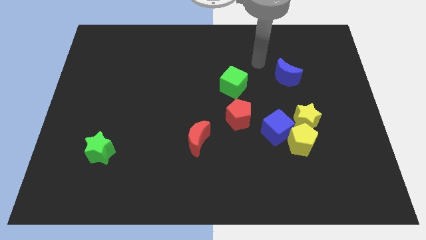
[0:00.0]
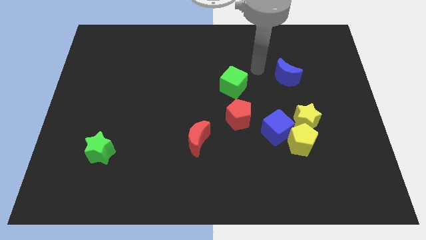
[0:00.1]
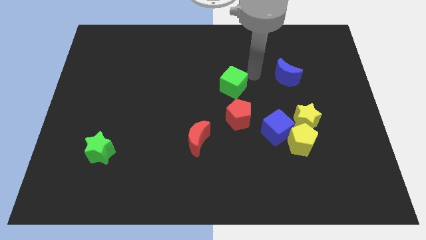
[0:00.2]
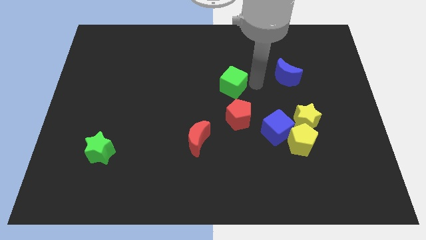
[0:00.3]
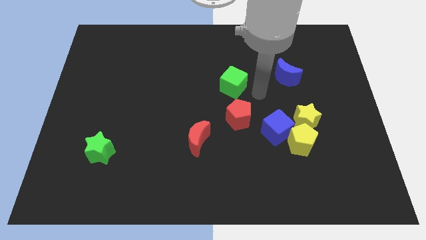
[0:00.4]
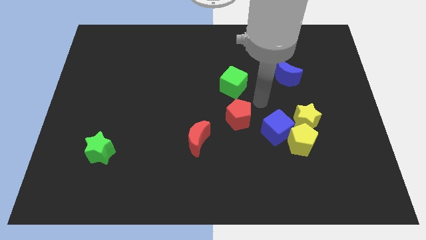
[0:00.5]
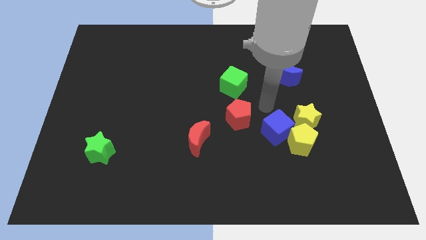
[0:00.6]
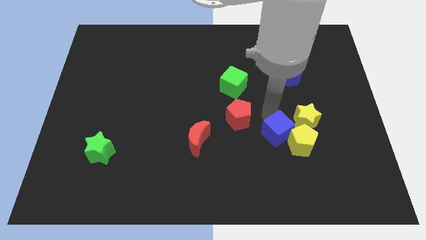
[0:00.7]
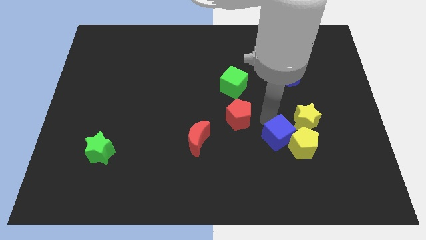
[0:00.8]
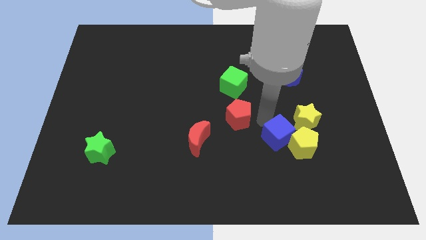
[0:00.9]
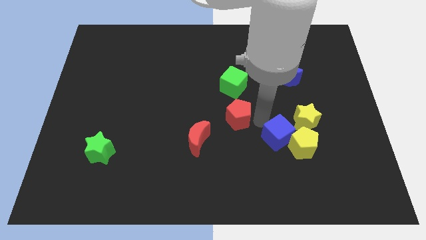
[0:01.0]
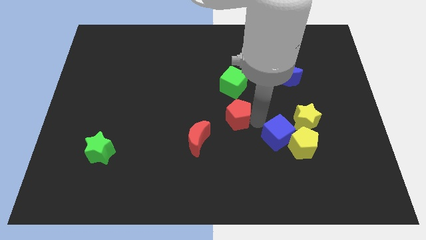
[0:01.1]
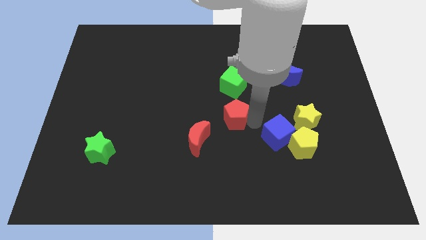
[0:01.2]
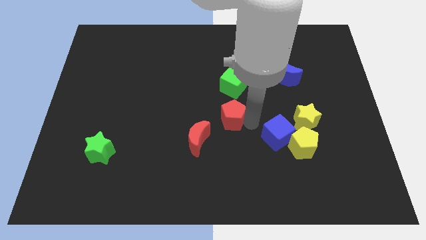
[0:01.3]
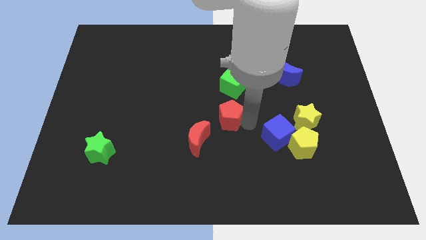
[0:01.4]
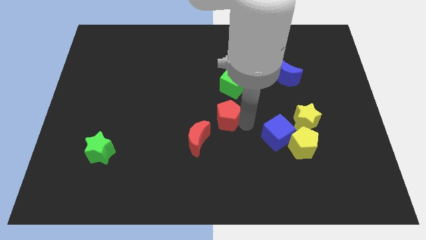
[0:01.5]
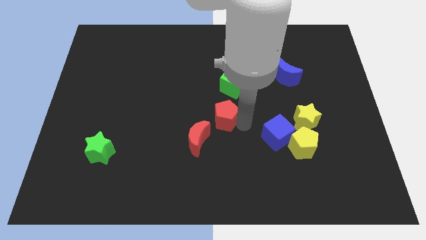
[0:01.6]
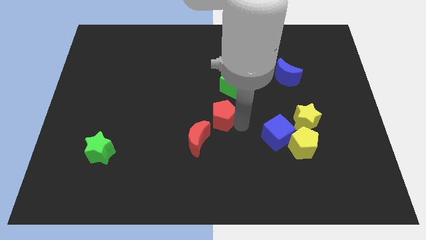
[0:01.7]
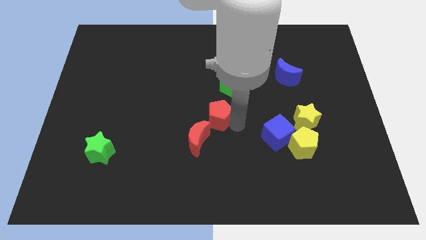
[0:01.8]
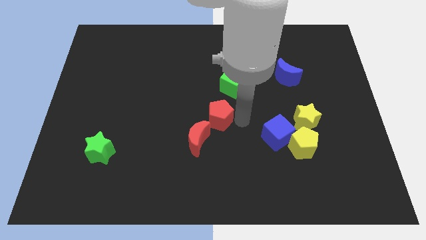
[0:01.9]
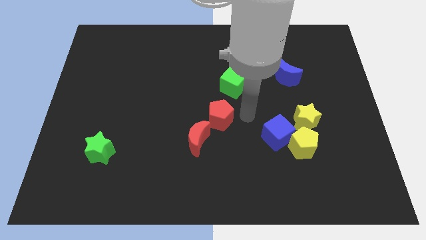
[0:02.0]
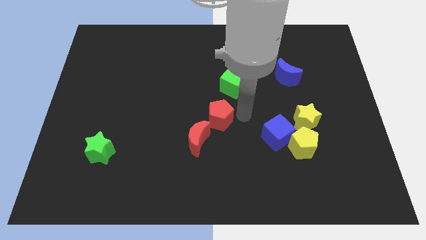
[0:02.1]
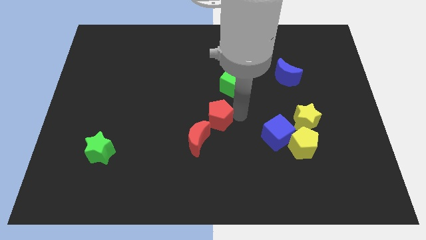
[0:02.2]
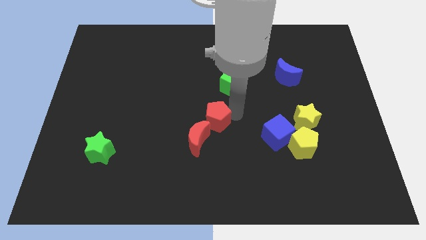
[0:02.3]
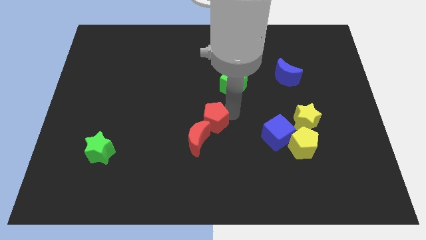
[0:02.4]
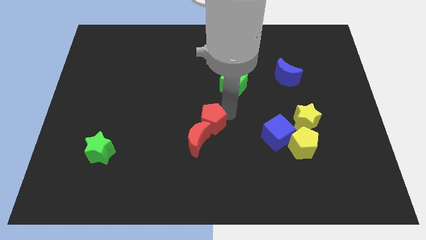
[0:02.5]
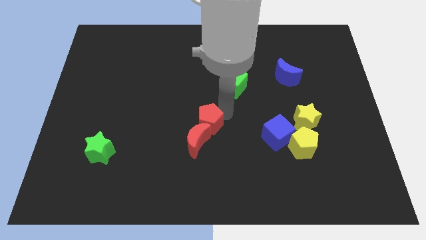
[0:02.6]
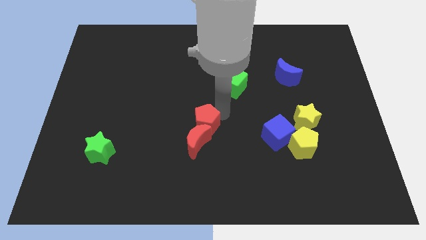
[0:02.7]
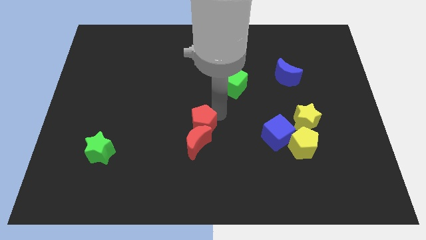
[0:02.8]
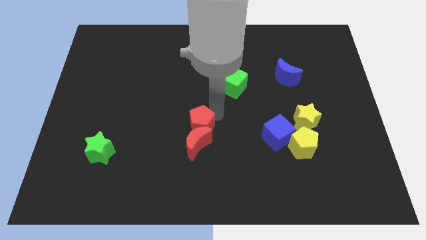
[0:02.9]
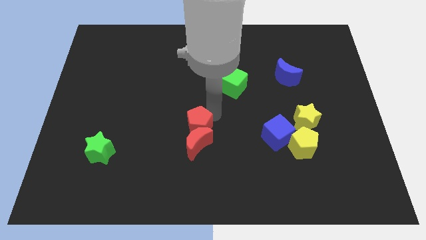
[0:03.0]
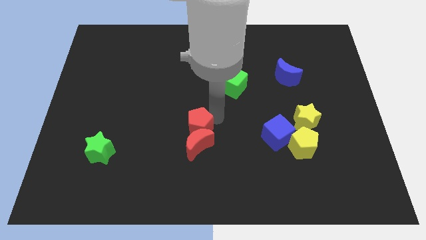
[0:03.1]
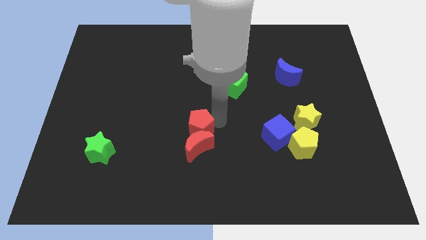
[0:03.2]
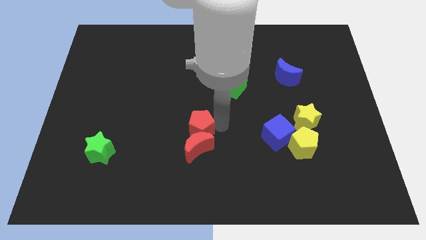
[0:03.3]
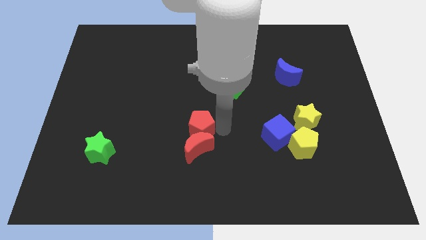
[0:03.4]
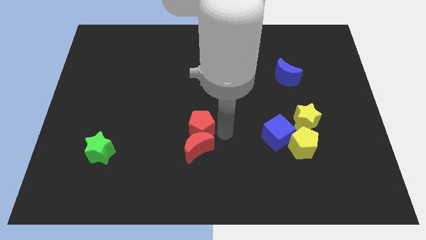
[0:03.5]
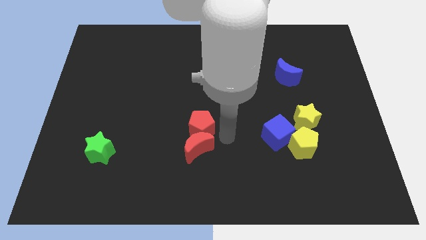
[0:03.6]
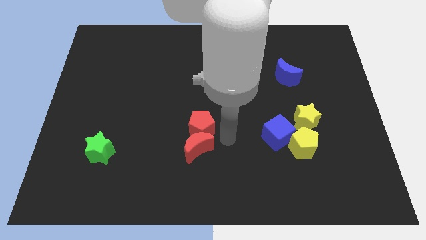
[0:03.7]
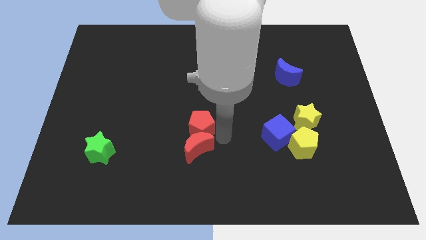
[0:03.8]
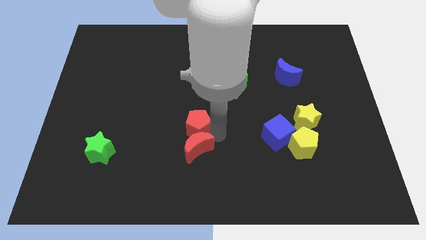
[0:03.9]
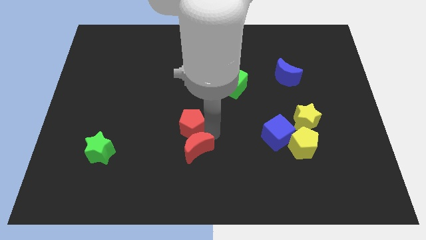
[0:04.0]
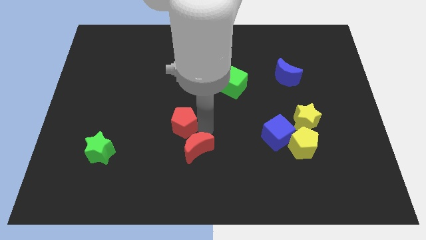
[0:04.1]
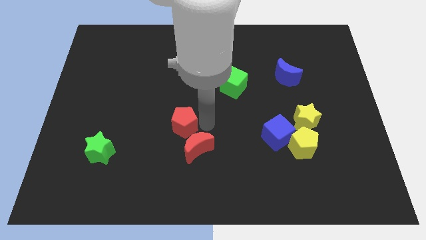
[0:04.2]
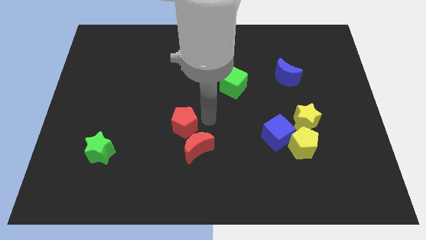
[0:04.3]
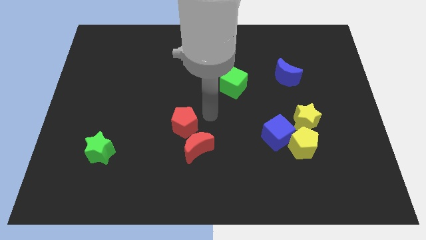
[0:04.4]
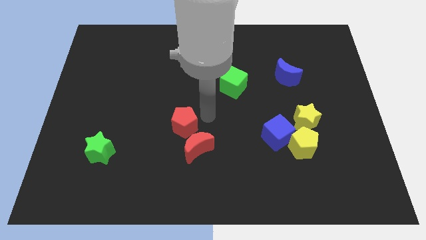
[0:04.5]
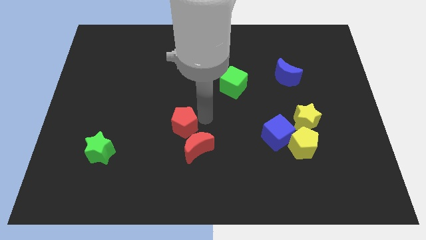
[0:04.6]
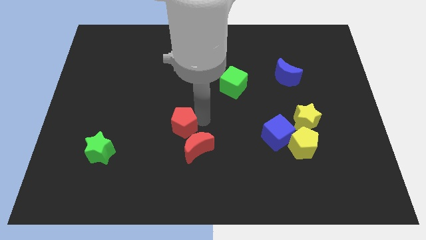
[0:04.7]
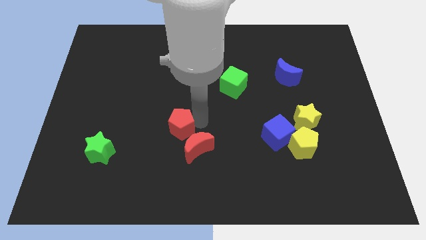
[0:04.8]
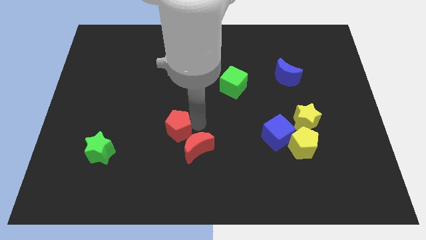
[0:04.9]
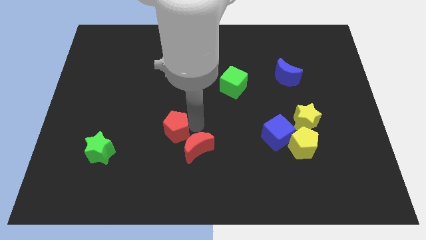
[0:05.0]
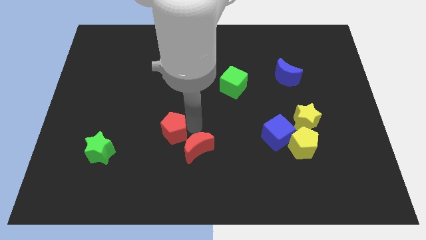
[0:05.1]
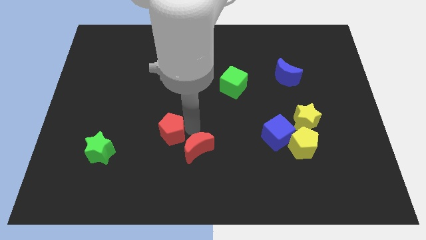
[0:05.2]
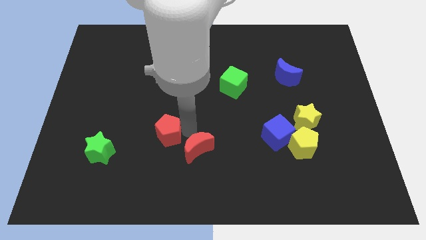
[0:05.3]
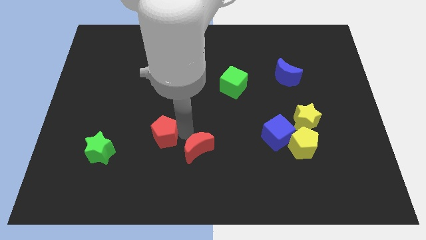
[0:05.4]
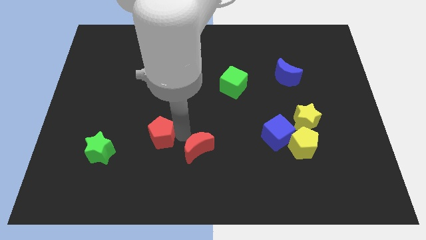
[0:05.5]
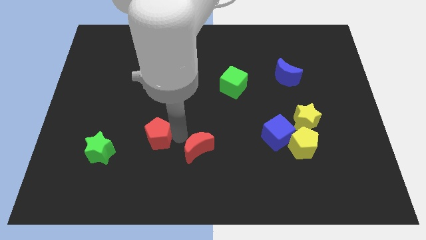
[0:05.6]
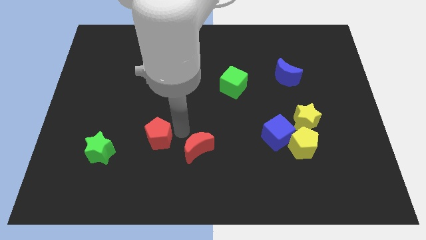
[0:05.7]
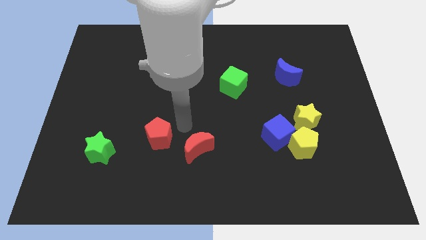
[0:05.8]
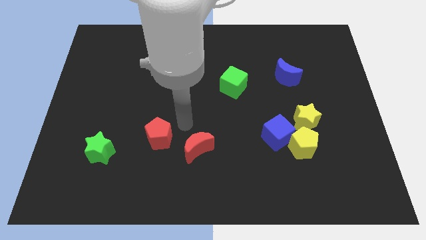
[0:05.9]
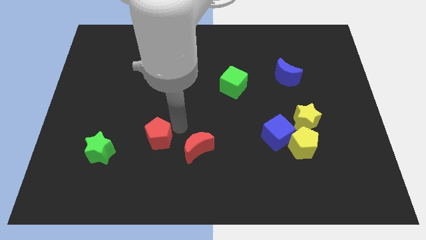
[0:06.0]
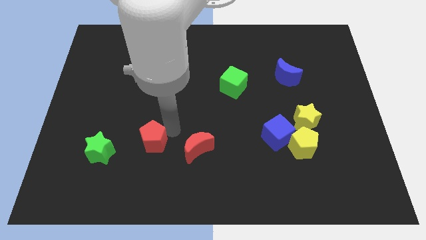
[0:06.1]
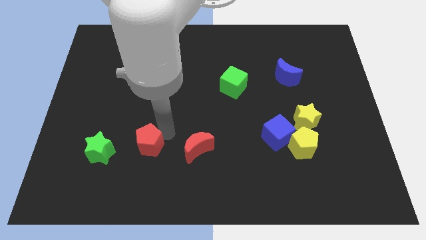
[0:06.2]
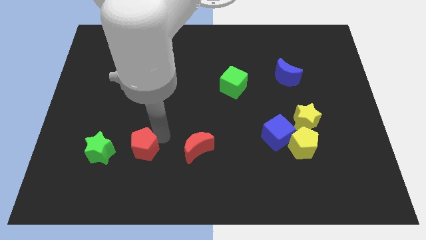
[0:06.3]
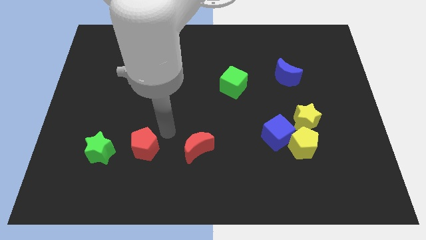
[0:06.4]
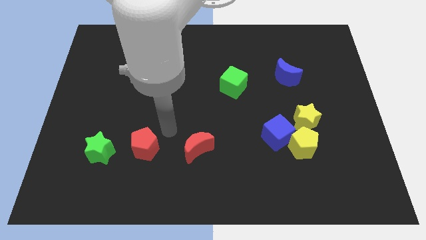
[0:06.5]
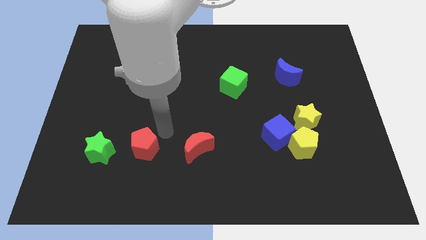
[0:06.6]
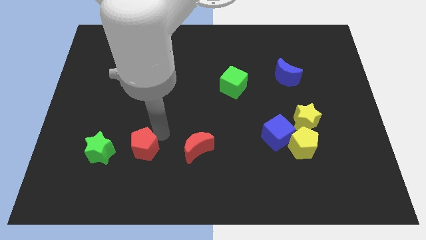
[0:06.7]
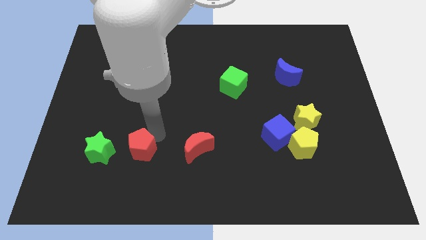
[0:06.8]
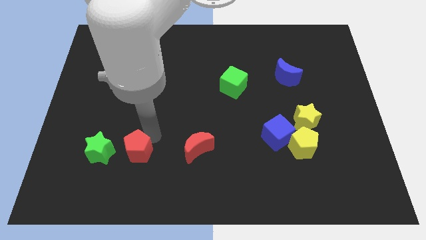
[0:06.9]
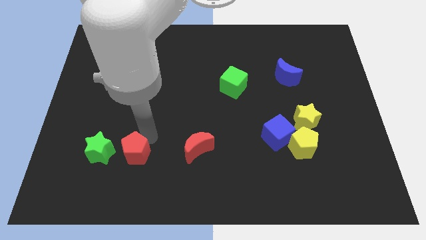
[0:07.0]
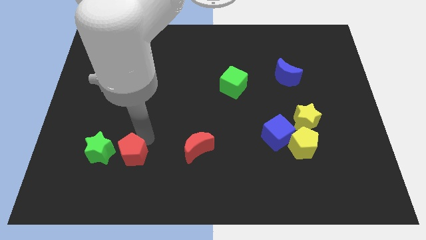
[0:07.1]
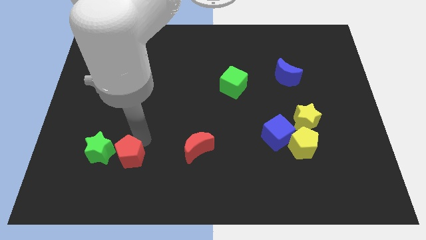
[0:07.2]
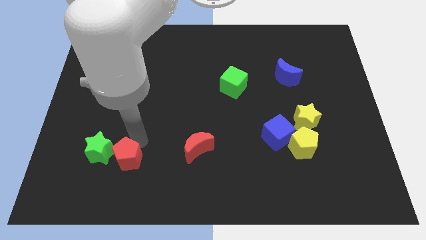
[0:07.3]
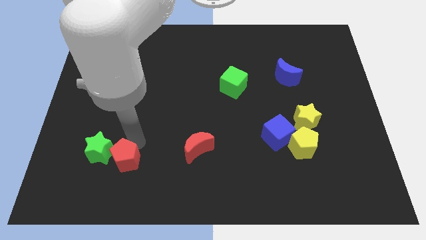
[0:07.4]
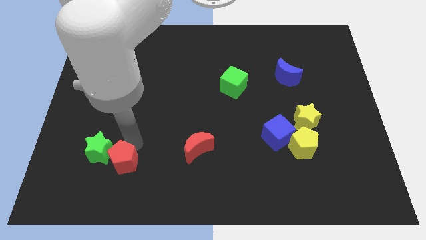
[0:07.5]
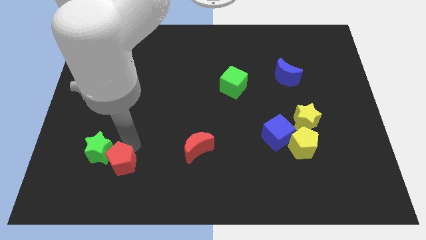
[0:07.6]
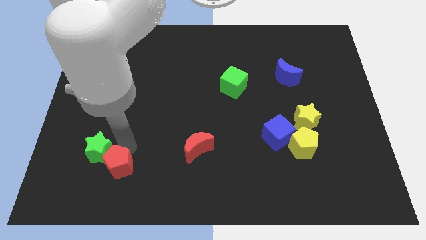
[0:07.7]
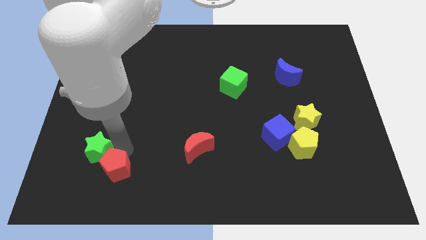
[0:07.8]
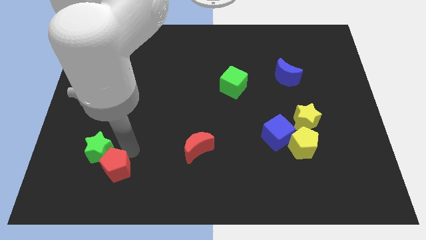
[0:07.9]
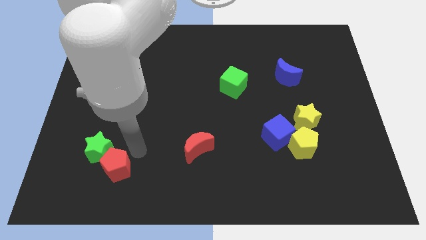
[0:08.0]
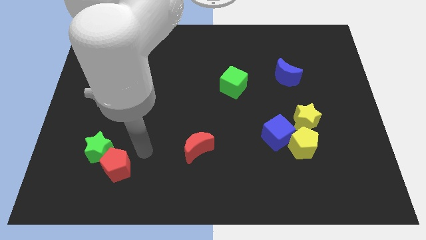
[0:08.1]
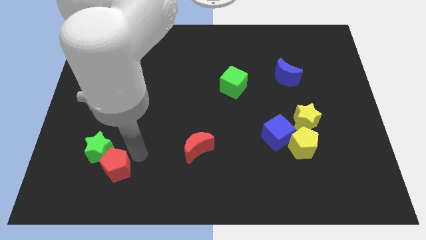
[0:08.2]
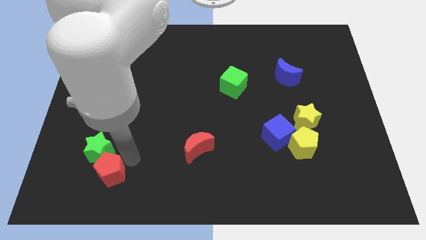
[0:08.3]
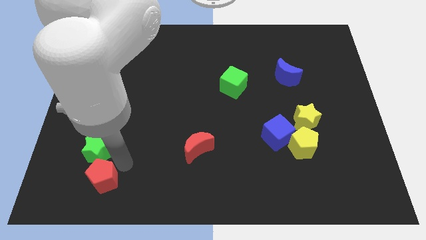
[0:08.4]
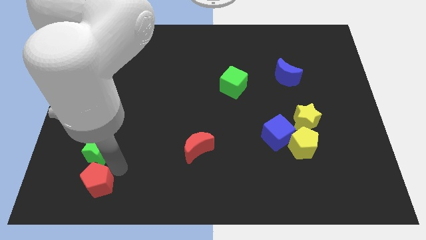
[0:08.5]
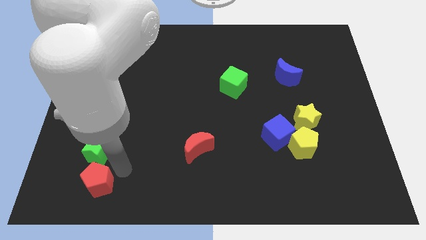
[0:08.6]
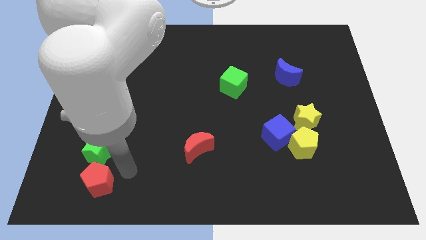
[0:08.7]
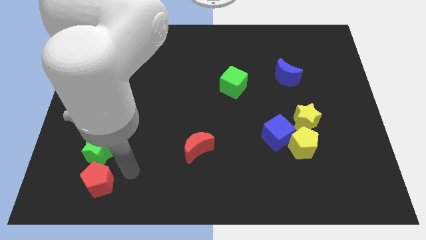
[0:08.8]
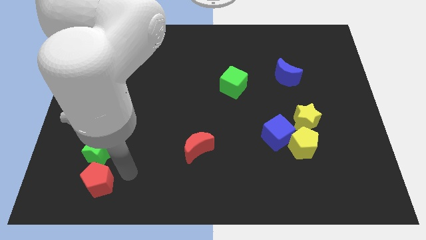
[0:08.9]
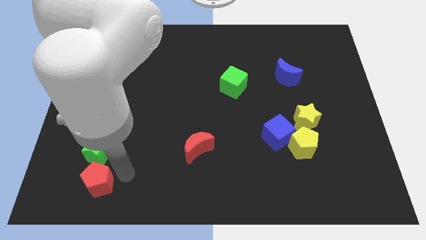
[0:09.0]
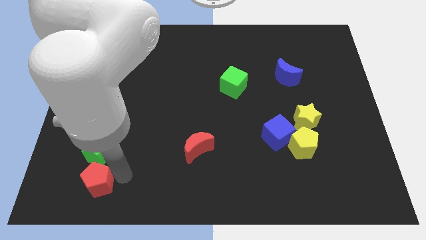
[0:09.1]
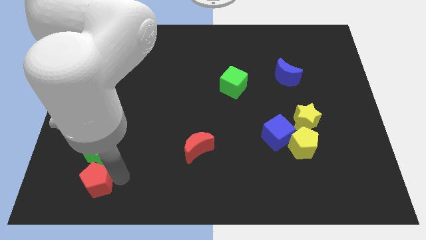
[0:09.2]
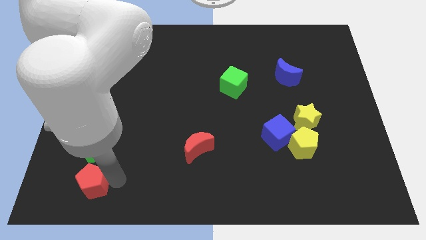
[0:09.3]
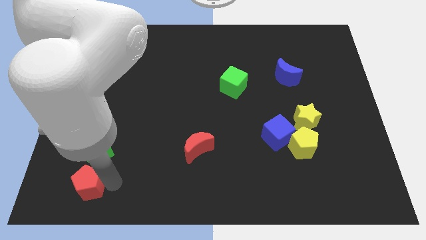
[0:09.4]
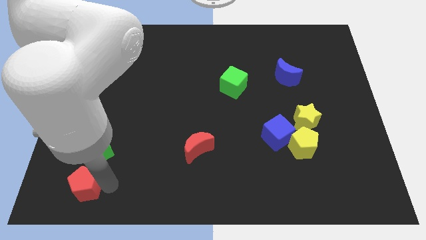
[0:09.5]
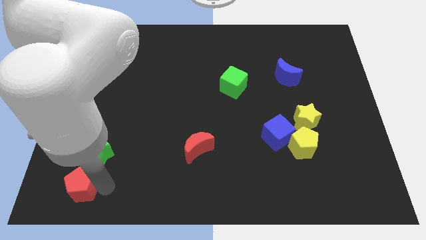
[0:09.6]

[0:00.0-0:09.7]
move the red pentagon to the bottom left
